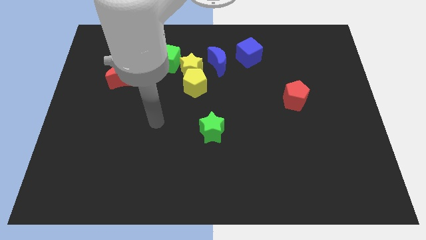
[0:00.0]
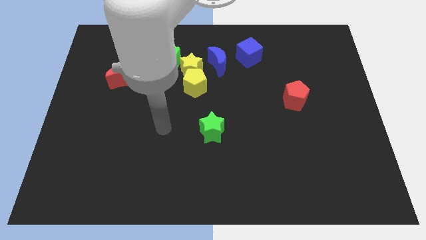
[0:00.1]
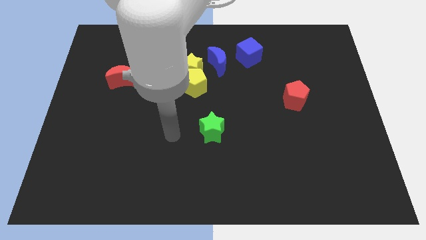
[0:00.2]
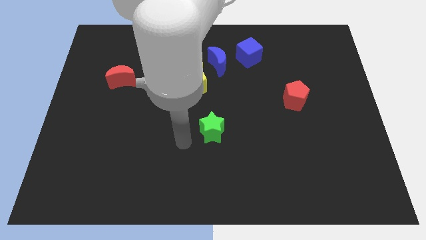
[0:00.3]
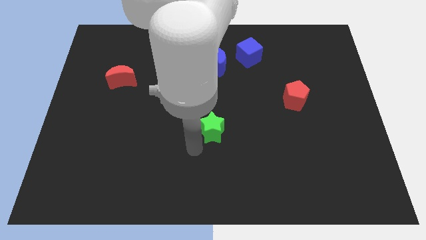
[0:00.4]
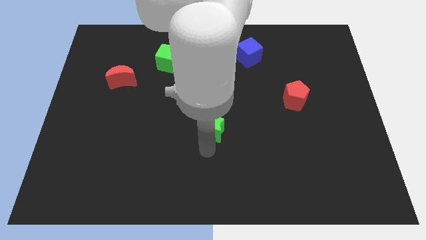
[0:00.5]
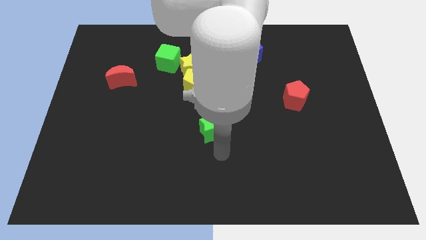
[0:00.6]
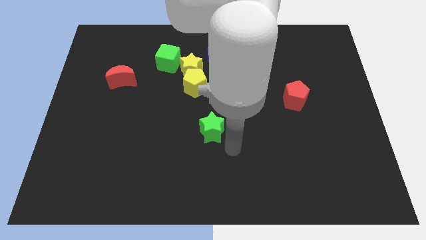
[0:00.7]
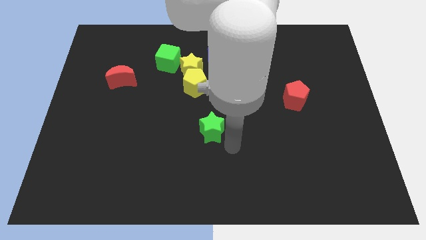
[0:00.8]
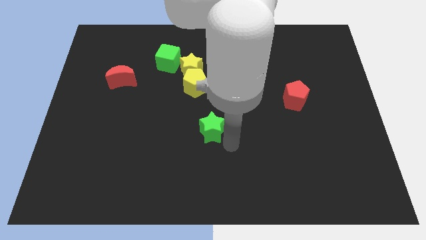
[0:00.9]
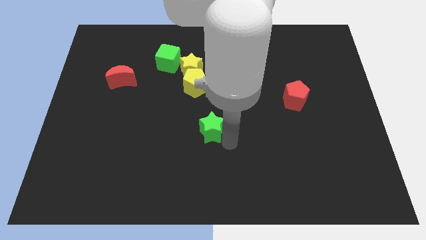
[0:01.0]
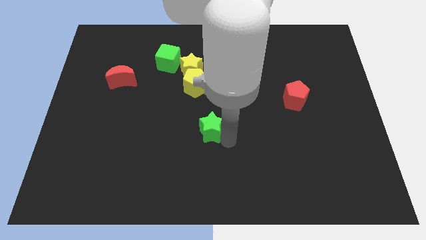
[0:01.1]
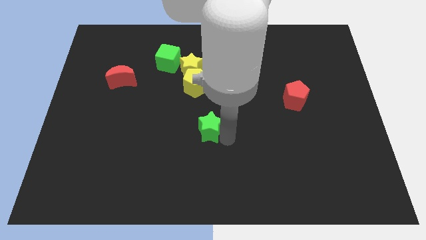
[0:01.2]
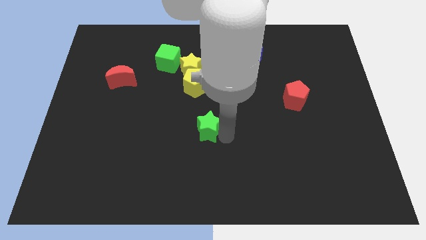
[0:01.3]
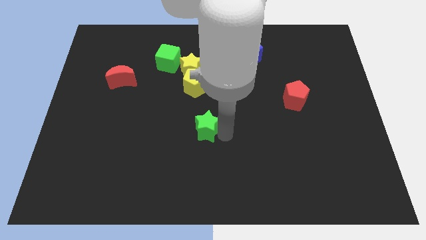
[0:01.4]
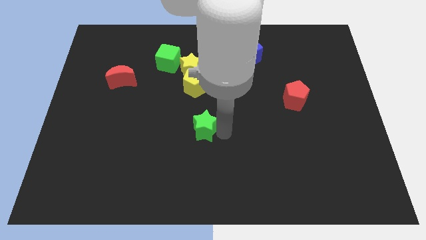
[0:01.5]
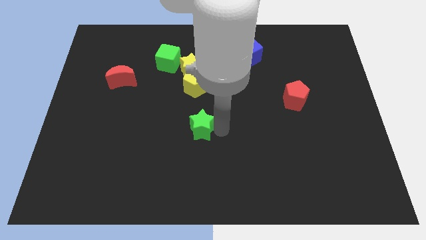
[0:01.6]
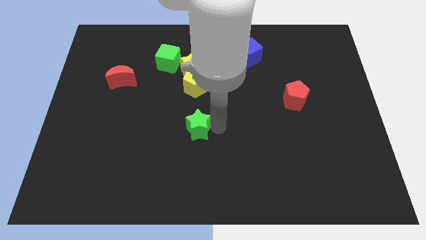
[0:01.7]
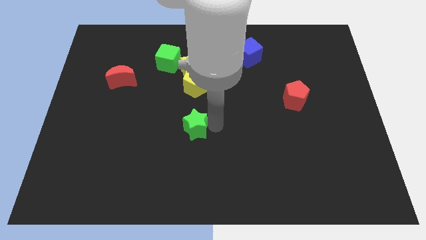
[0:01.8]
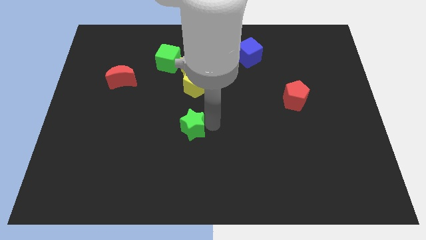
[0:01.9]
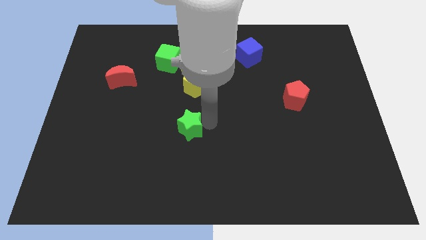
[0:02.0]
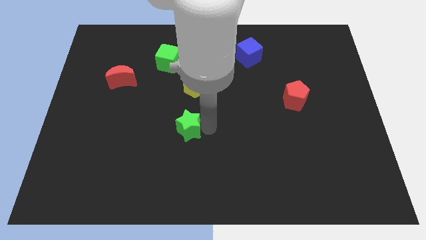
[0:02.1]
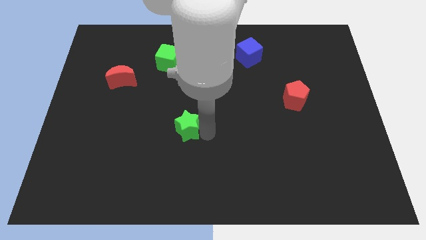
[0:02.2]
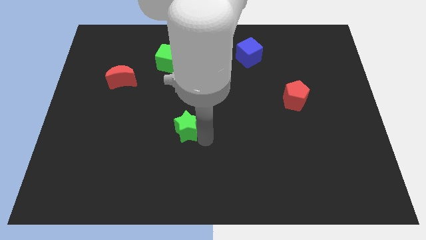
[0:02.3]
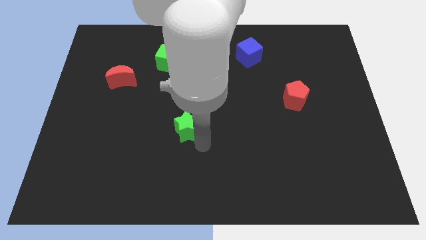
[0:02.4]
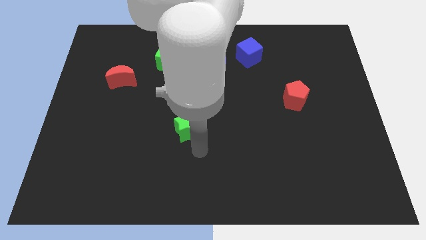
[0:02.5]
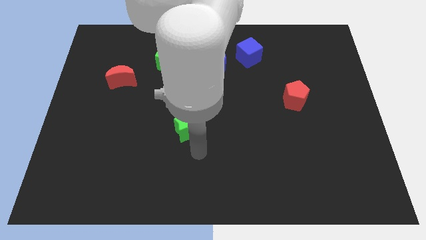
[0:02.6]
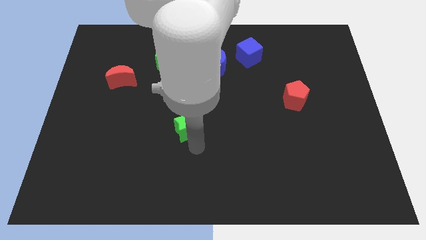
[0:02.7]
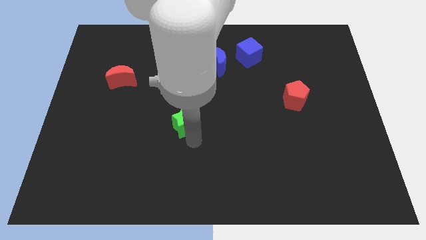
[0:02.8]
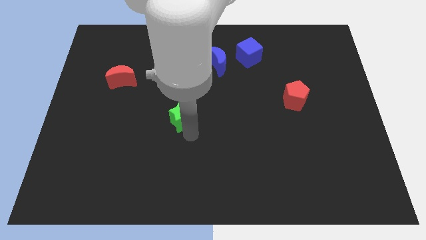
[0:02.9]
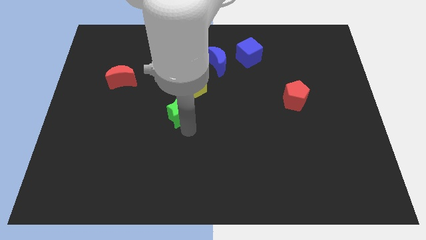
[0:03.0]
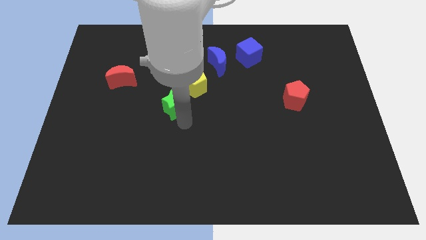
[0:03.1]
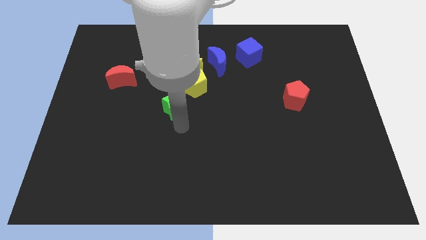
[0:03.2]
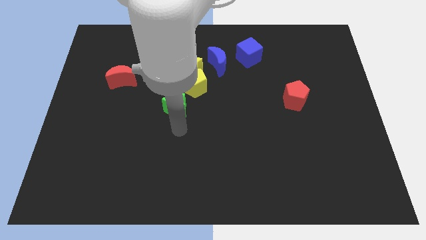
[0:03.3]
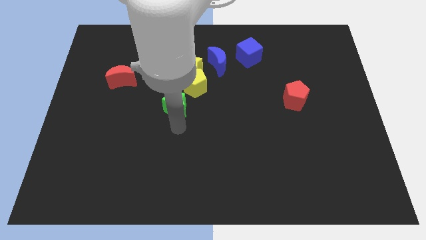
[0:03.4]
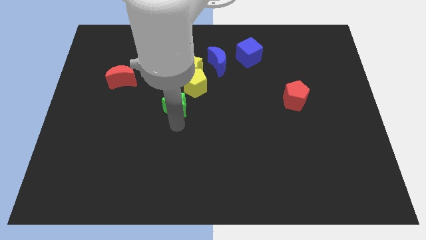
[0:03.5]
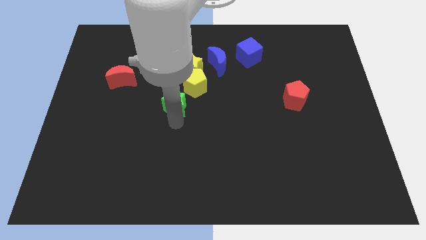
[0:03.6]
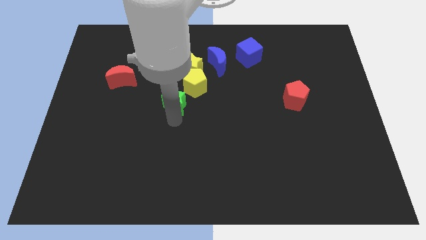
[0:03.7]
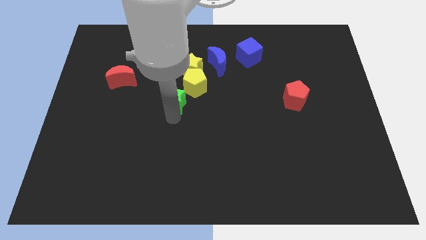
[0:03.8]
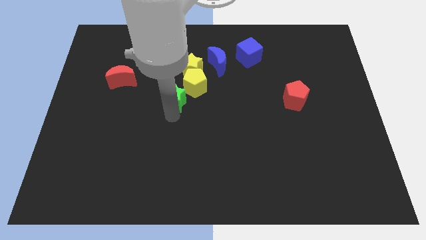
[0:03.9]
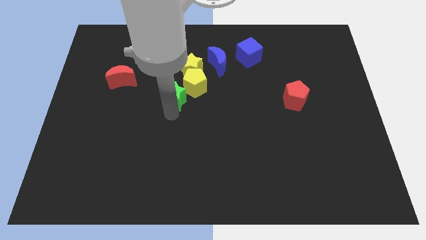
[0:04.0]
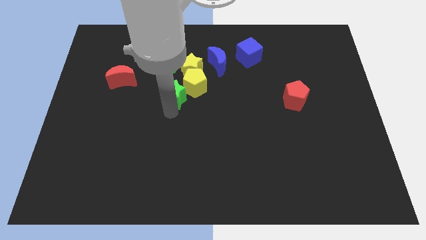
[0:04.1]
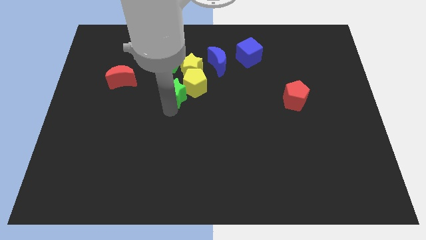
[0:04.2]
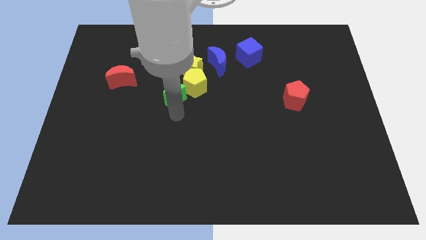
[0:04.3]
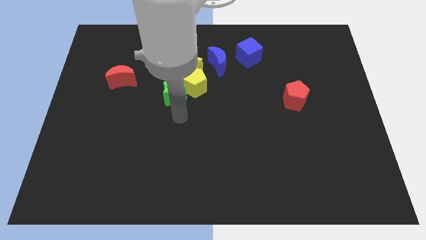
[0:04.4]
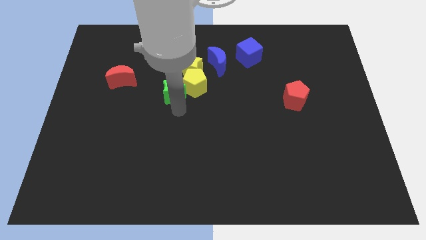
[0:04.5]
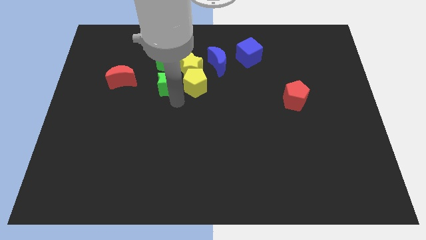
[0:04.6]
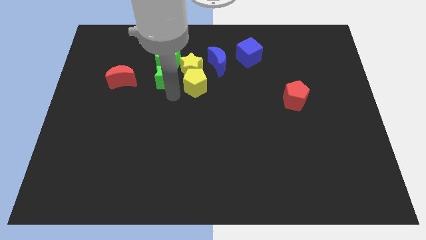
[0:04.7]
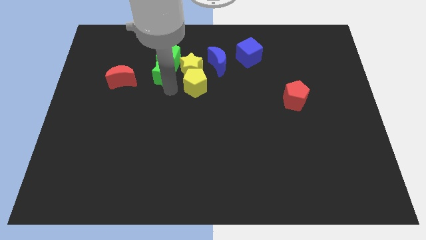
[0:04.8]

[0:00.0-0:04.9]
put the green star next to the green cube
